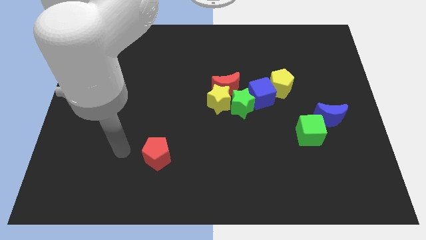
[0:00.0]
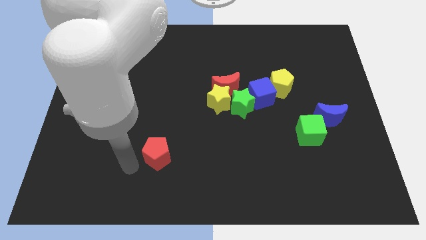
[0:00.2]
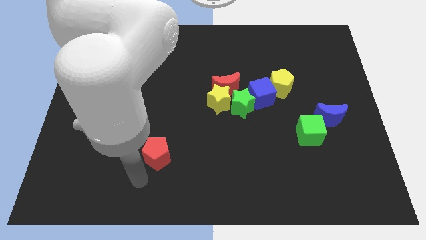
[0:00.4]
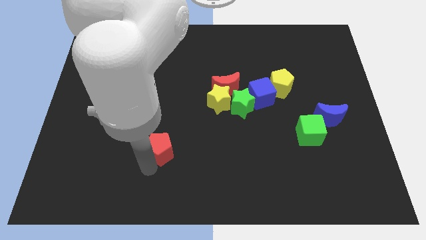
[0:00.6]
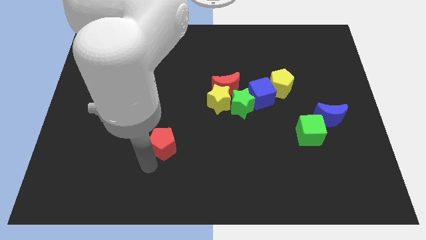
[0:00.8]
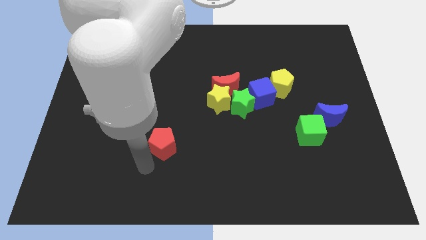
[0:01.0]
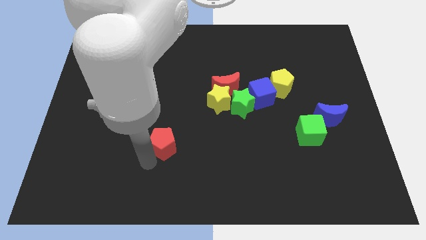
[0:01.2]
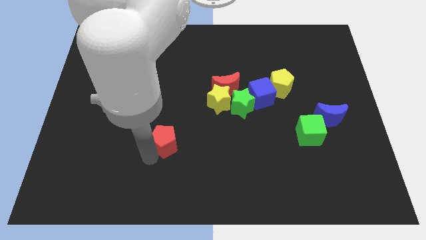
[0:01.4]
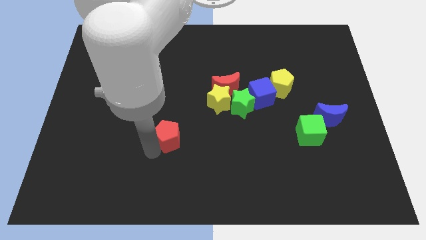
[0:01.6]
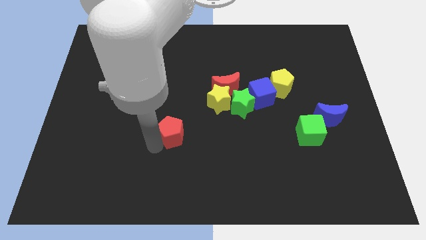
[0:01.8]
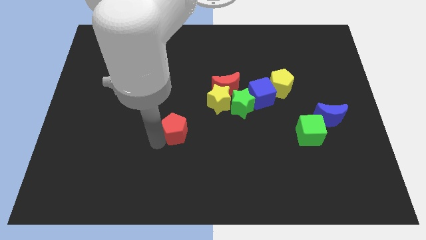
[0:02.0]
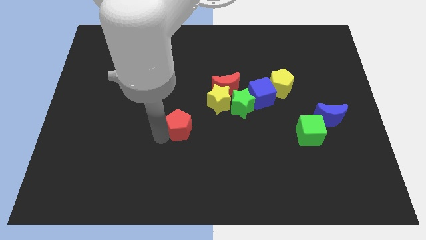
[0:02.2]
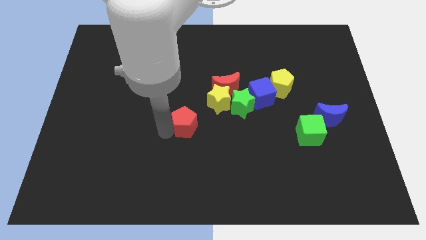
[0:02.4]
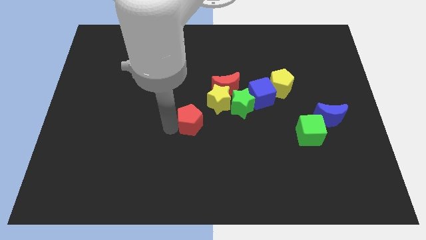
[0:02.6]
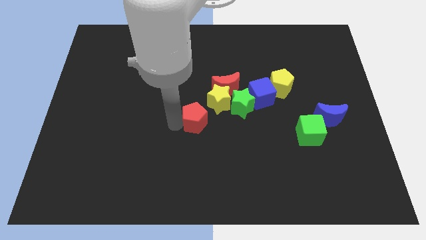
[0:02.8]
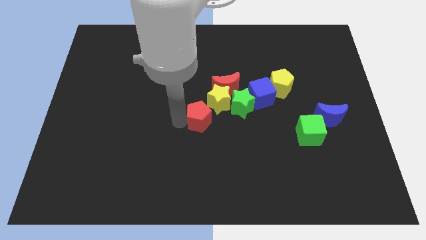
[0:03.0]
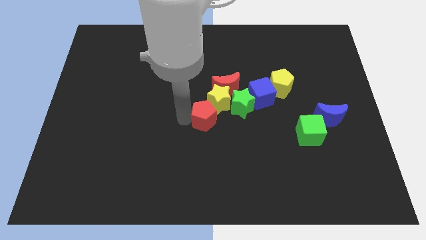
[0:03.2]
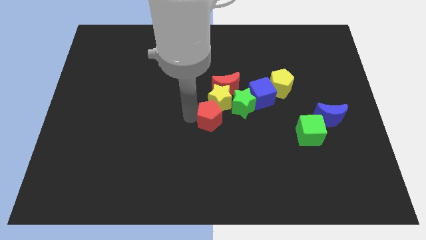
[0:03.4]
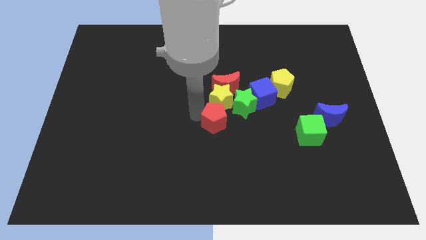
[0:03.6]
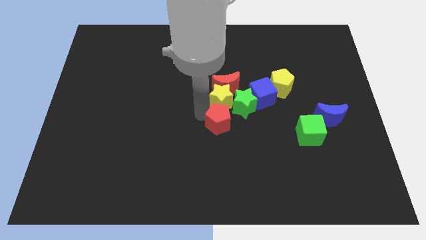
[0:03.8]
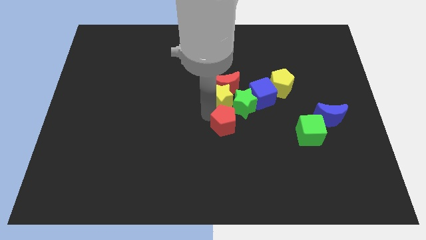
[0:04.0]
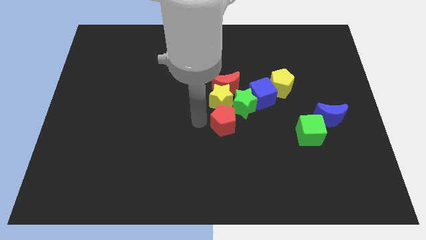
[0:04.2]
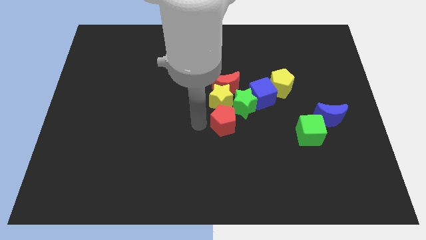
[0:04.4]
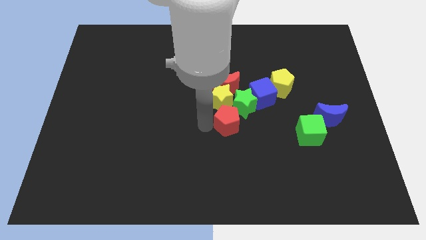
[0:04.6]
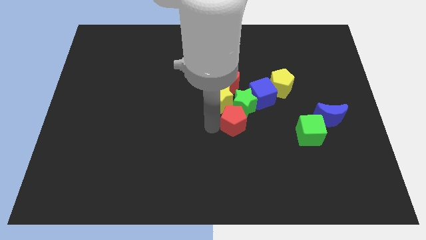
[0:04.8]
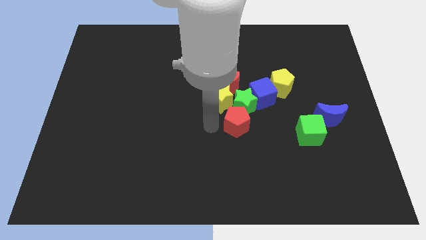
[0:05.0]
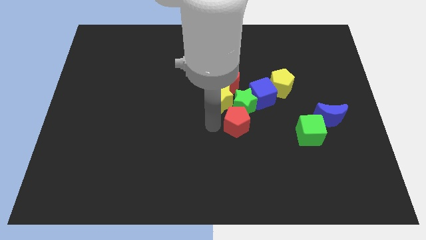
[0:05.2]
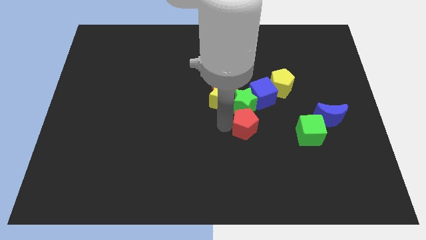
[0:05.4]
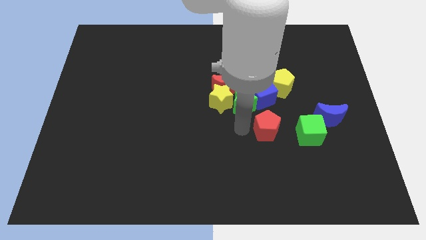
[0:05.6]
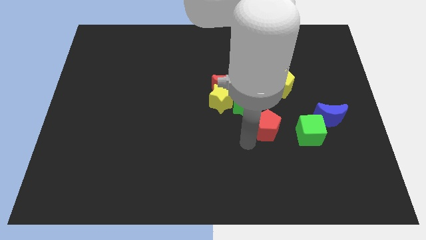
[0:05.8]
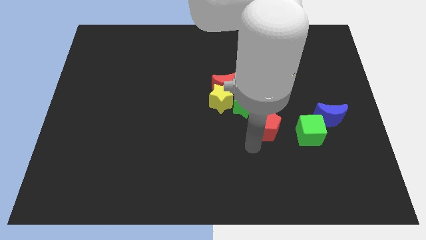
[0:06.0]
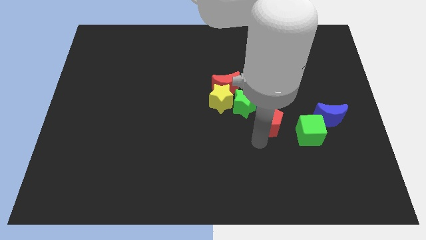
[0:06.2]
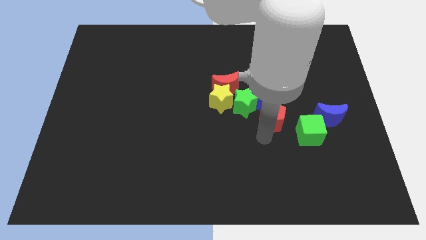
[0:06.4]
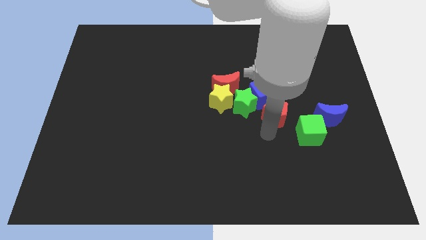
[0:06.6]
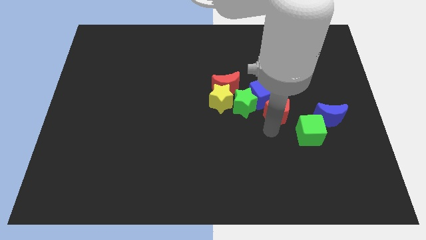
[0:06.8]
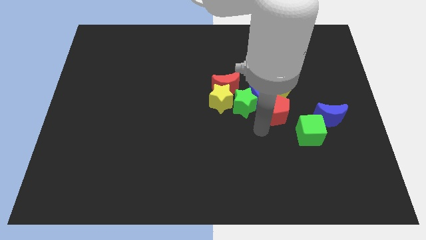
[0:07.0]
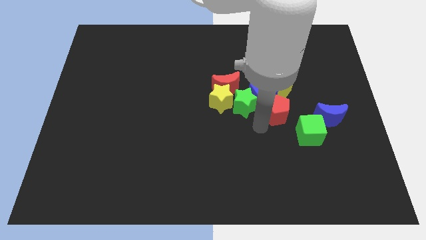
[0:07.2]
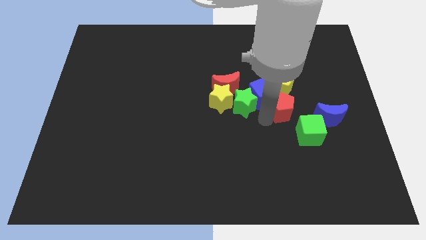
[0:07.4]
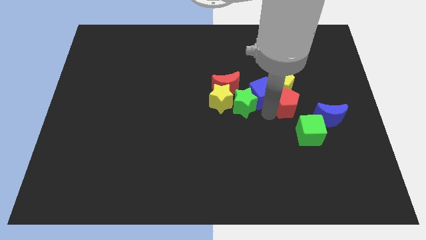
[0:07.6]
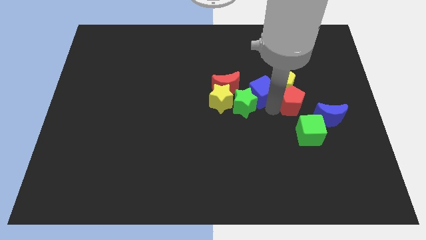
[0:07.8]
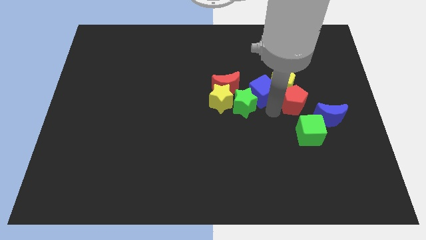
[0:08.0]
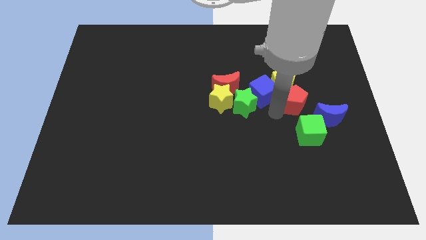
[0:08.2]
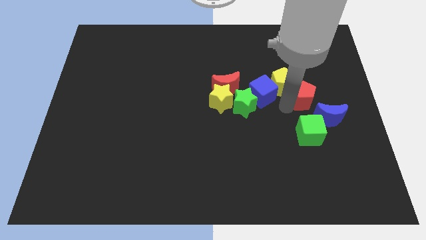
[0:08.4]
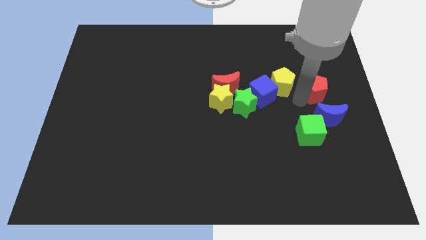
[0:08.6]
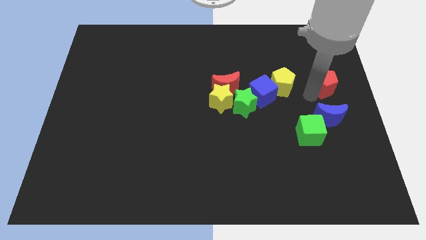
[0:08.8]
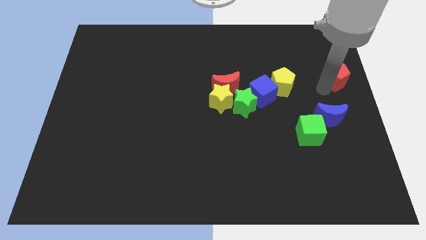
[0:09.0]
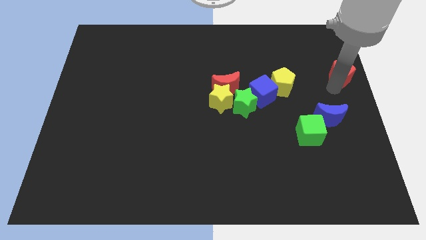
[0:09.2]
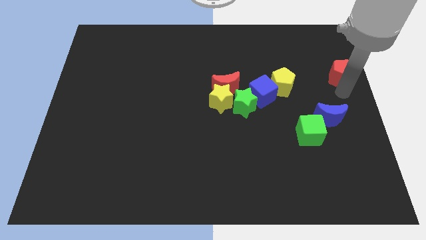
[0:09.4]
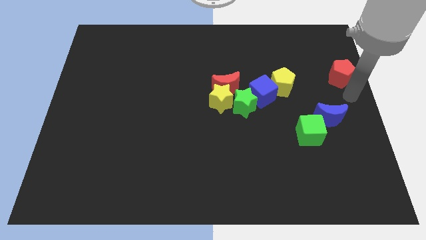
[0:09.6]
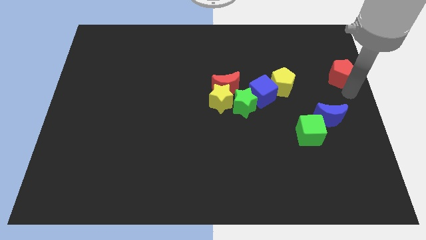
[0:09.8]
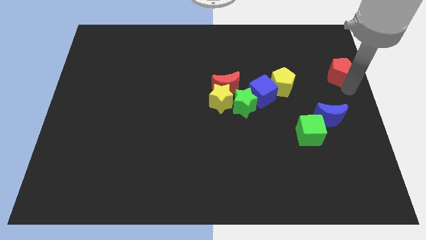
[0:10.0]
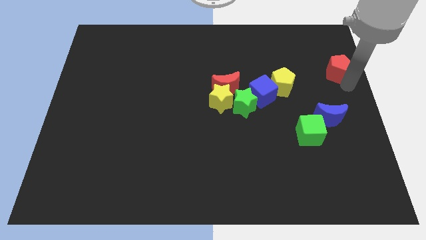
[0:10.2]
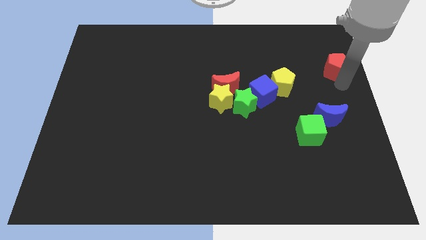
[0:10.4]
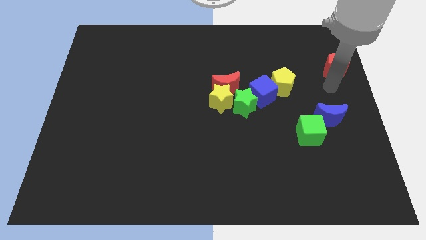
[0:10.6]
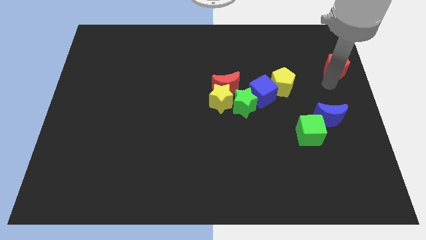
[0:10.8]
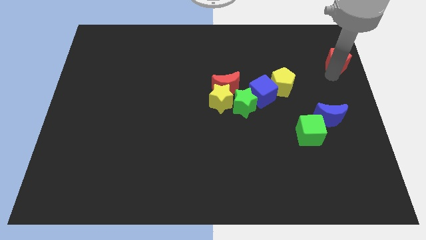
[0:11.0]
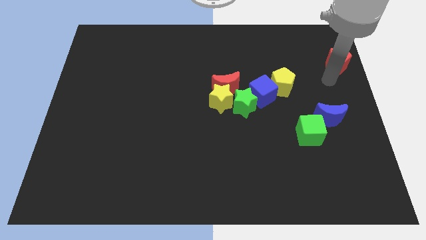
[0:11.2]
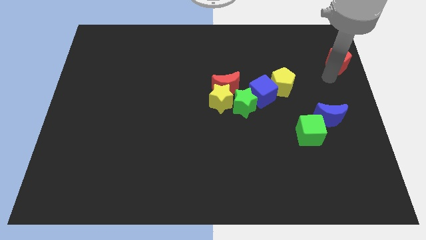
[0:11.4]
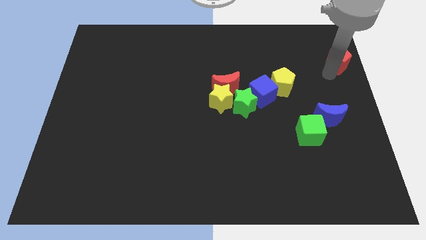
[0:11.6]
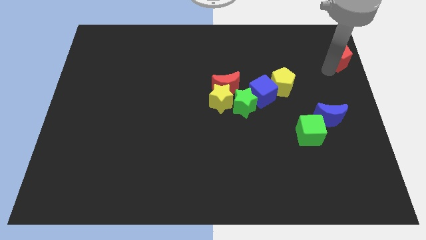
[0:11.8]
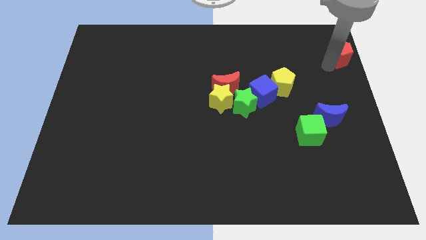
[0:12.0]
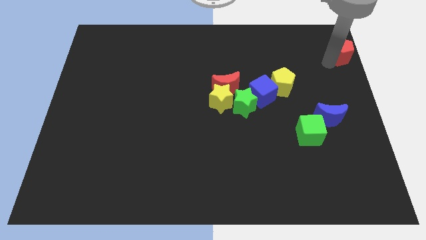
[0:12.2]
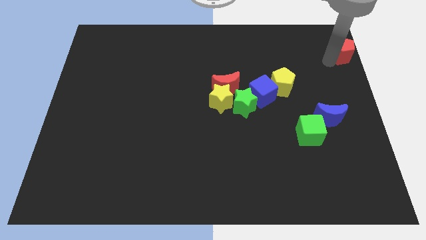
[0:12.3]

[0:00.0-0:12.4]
put the red pentagon to the upper right corner
